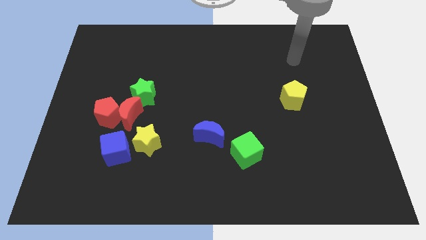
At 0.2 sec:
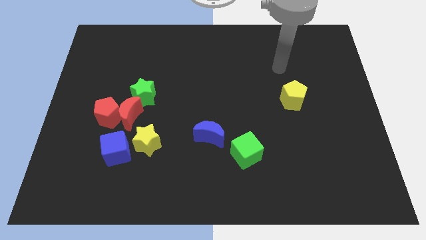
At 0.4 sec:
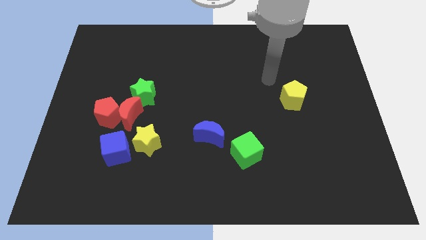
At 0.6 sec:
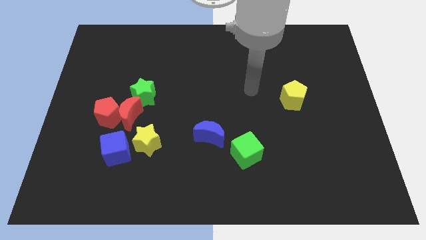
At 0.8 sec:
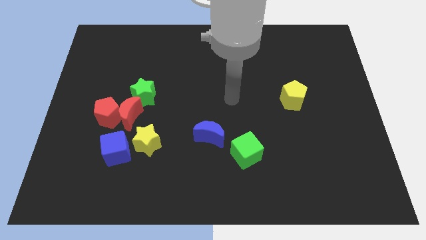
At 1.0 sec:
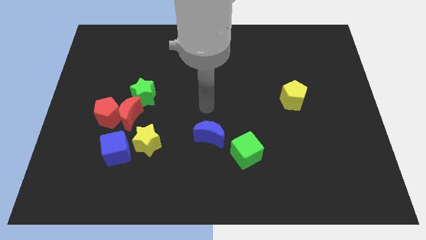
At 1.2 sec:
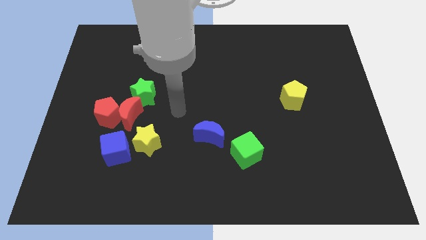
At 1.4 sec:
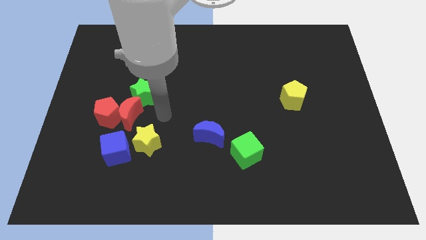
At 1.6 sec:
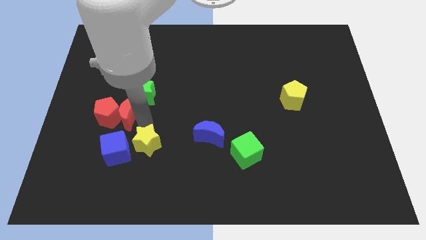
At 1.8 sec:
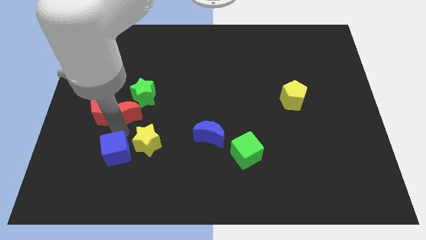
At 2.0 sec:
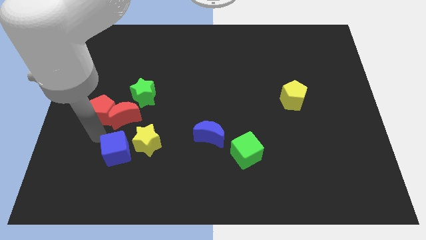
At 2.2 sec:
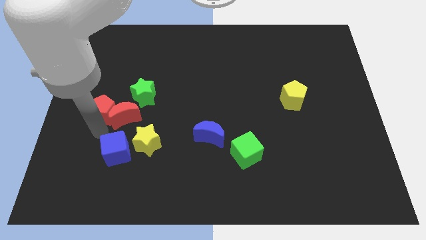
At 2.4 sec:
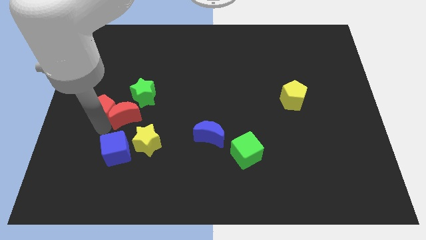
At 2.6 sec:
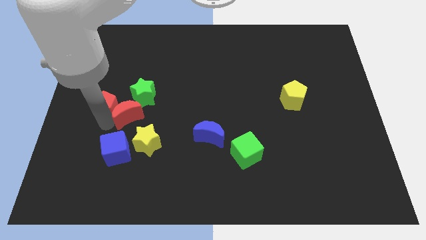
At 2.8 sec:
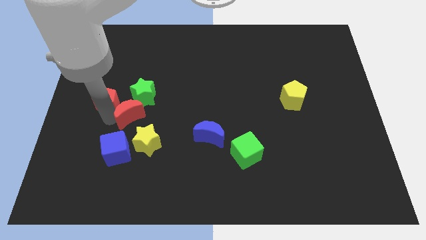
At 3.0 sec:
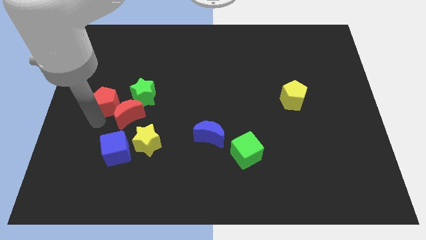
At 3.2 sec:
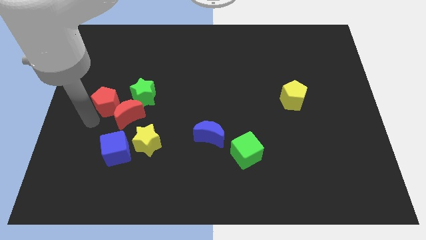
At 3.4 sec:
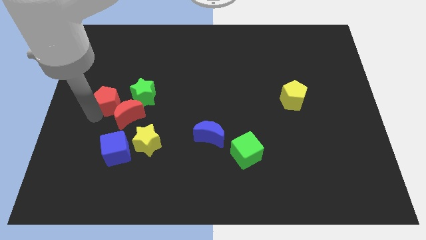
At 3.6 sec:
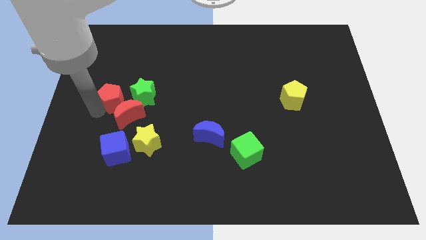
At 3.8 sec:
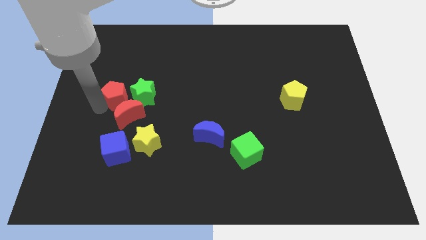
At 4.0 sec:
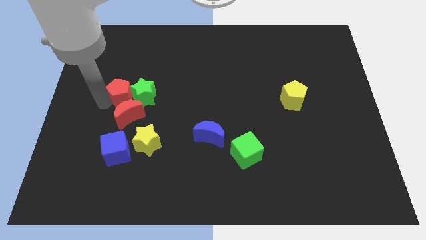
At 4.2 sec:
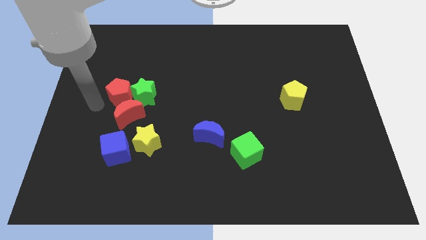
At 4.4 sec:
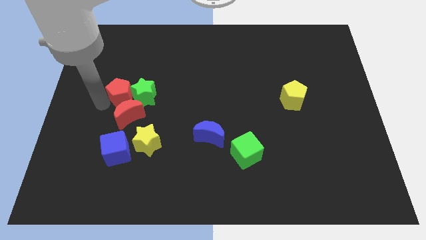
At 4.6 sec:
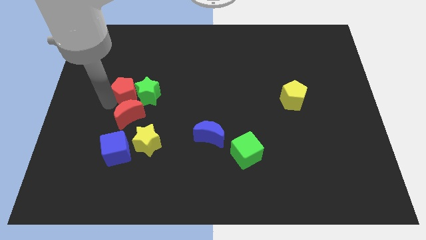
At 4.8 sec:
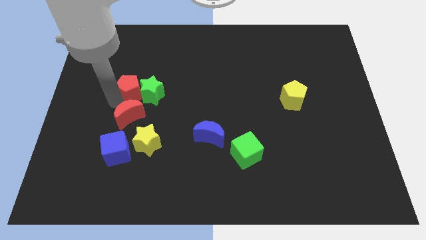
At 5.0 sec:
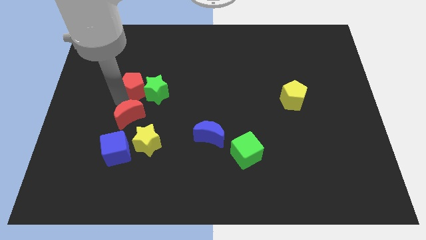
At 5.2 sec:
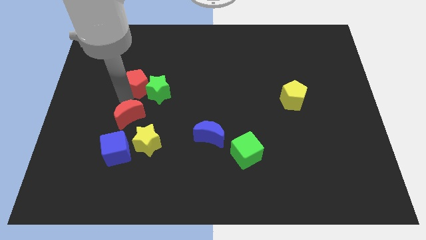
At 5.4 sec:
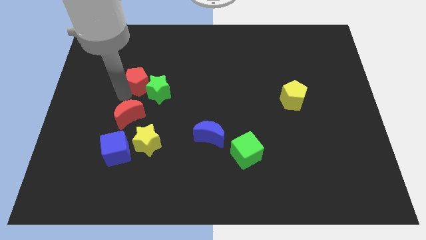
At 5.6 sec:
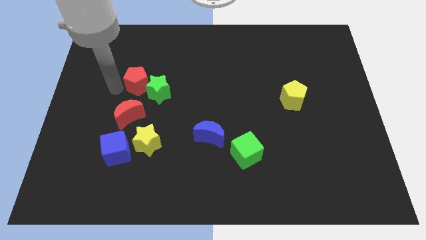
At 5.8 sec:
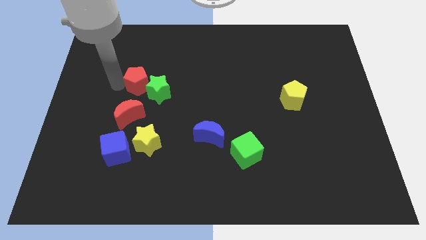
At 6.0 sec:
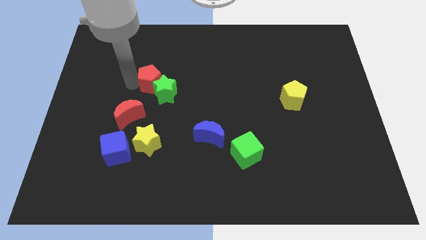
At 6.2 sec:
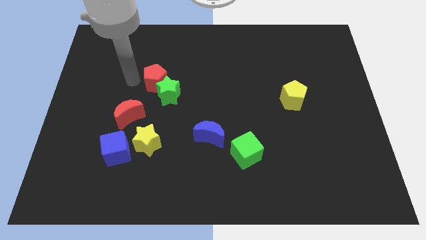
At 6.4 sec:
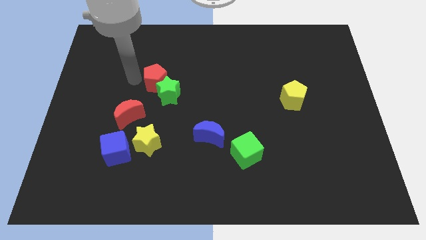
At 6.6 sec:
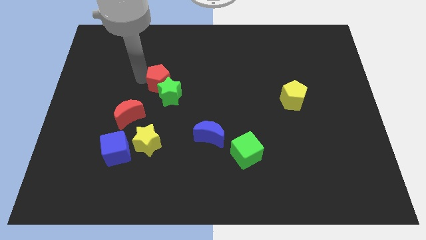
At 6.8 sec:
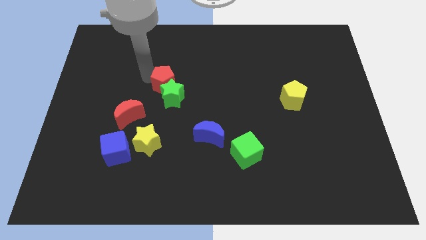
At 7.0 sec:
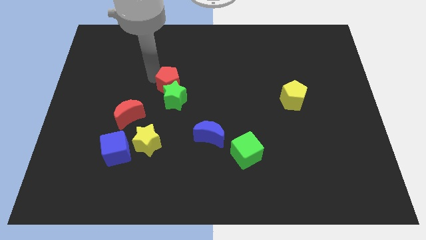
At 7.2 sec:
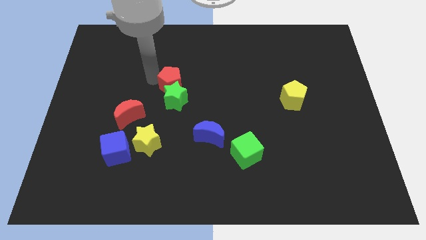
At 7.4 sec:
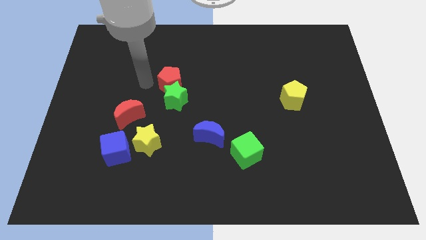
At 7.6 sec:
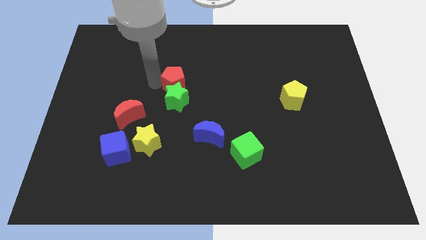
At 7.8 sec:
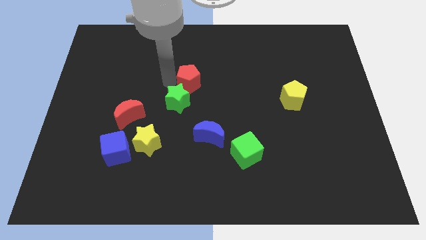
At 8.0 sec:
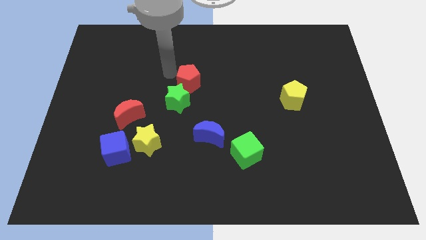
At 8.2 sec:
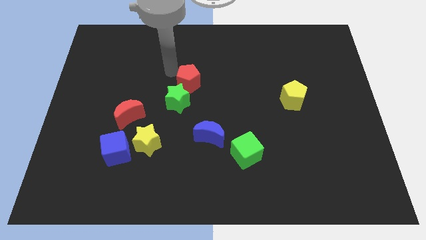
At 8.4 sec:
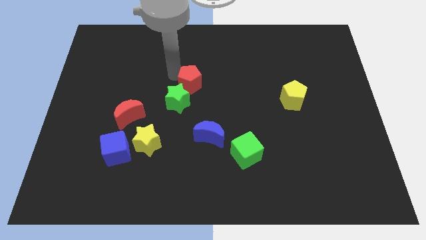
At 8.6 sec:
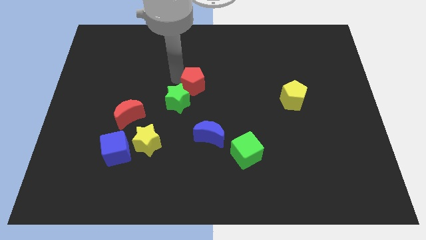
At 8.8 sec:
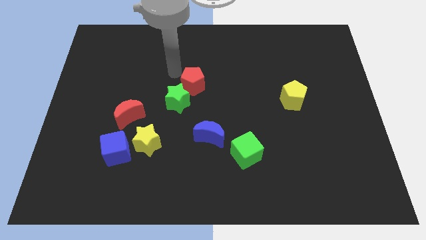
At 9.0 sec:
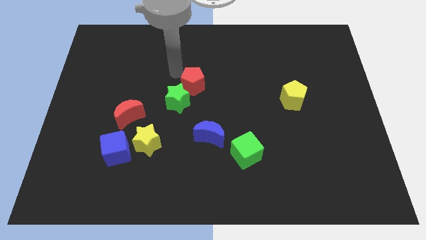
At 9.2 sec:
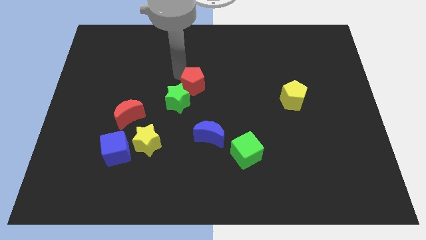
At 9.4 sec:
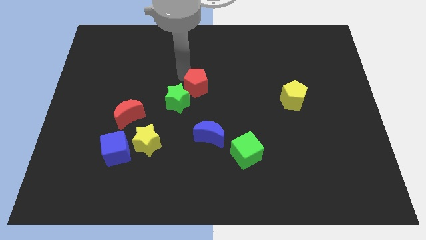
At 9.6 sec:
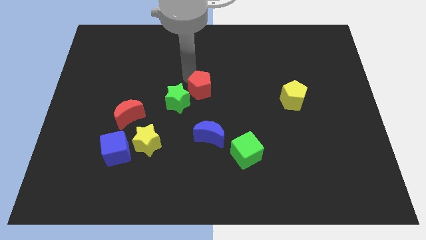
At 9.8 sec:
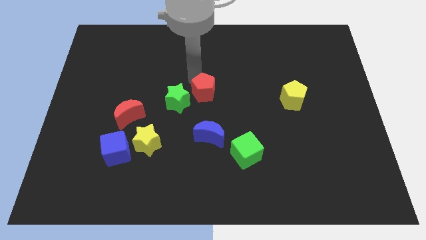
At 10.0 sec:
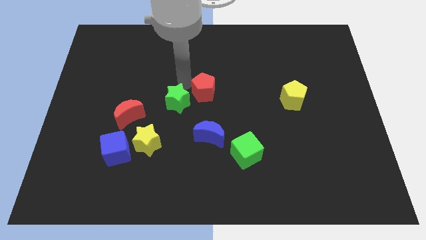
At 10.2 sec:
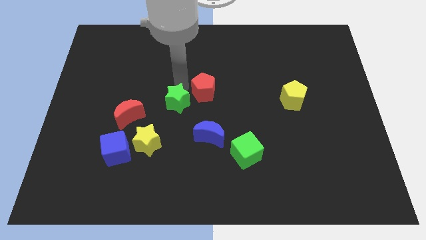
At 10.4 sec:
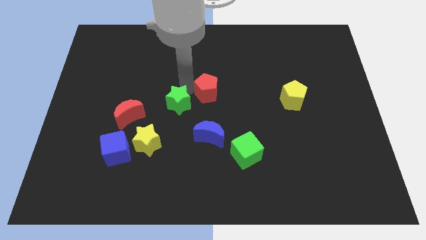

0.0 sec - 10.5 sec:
move the red pentagon right

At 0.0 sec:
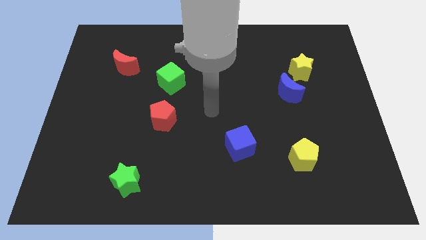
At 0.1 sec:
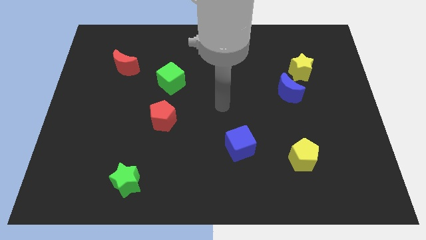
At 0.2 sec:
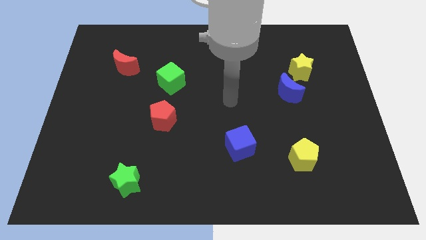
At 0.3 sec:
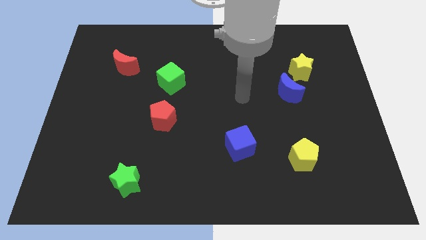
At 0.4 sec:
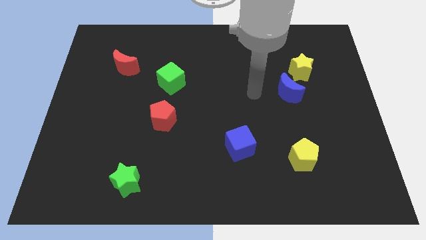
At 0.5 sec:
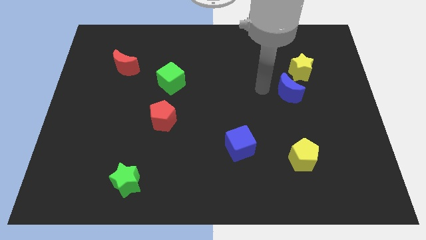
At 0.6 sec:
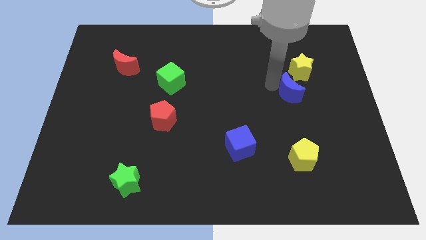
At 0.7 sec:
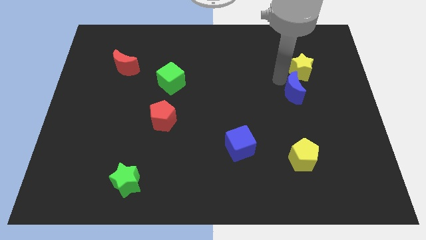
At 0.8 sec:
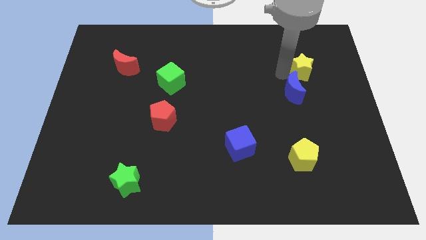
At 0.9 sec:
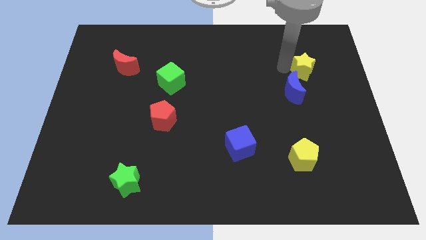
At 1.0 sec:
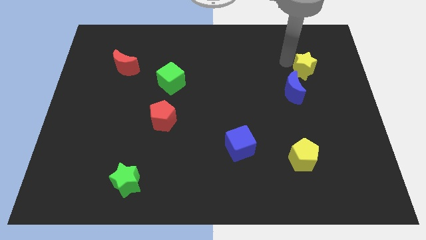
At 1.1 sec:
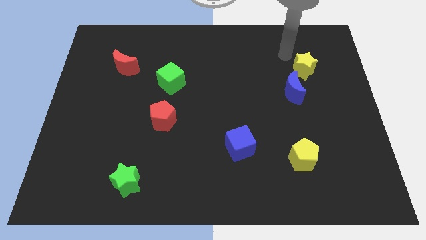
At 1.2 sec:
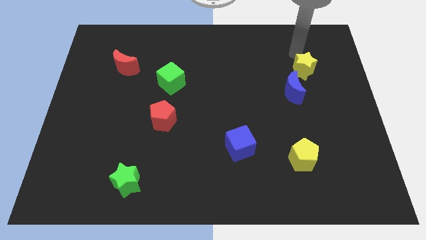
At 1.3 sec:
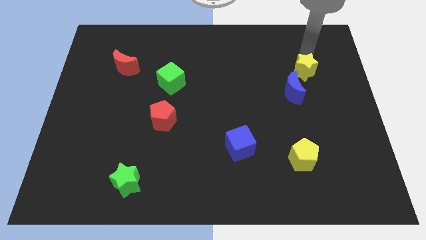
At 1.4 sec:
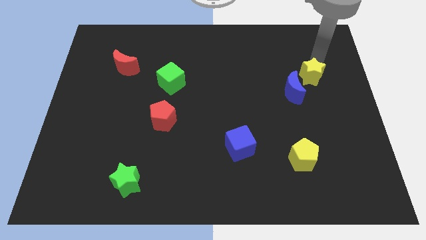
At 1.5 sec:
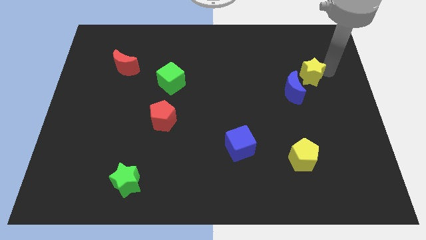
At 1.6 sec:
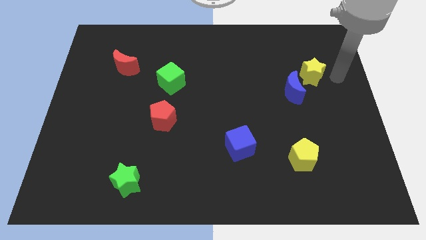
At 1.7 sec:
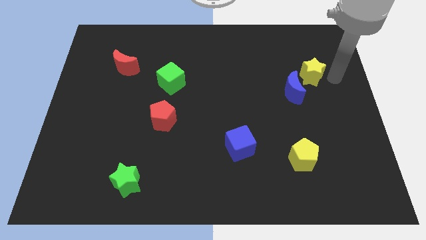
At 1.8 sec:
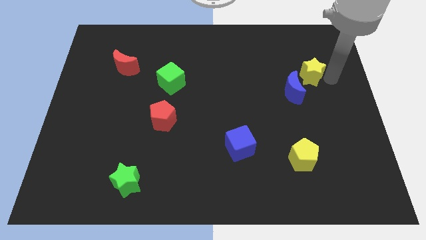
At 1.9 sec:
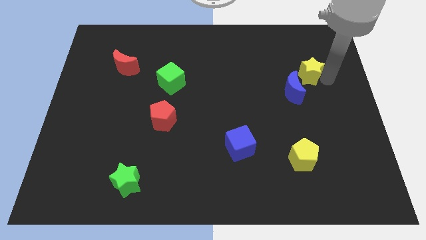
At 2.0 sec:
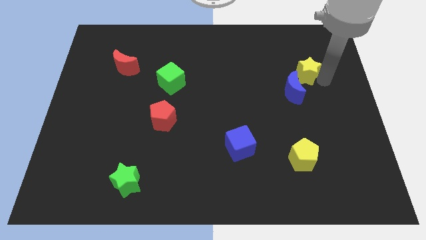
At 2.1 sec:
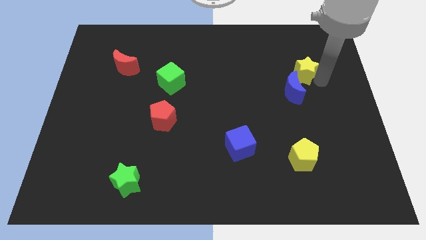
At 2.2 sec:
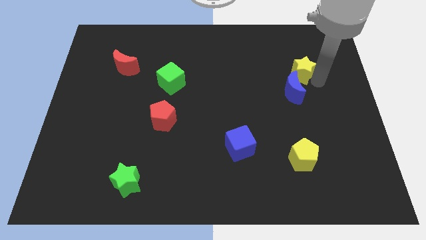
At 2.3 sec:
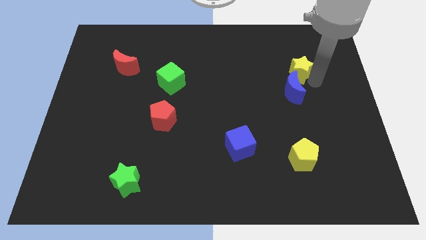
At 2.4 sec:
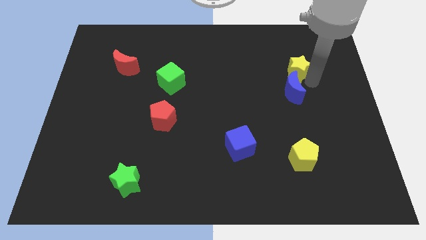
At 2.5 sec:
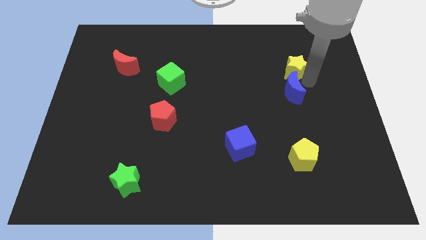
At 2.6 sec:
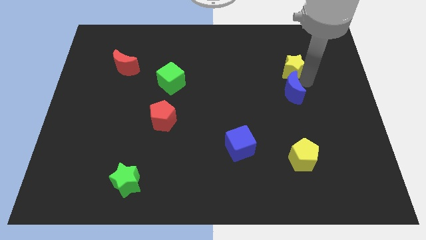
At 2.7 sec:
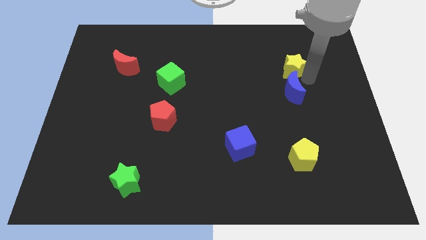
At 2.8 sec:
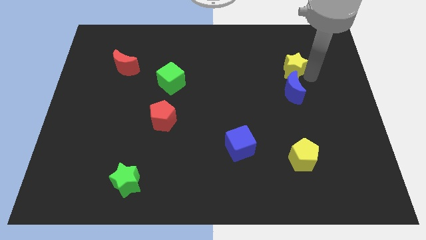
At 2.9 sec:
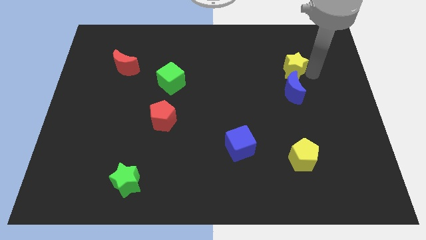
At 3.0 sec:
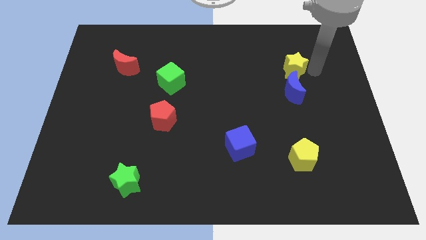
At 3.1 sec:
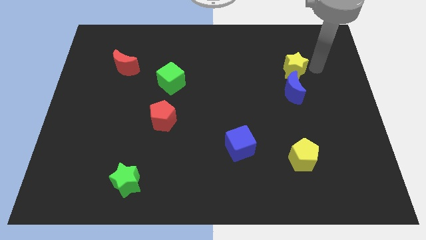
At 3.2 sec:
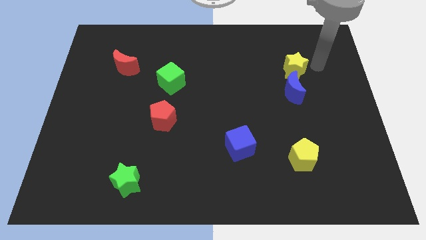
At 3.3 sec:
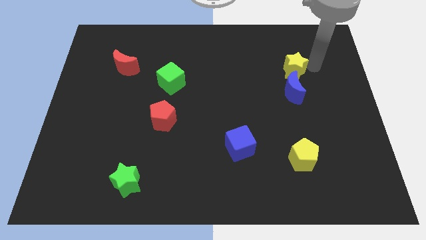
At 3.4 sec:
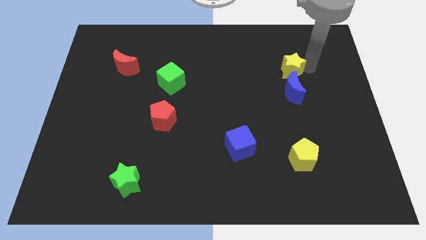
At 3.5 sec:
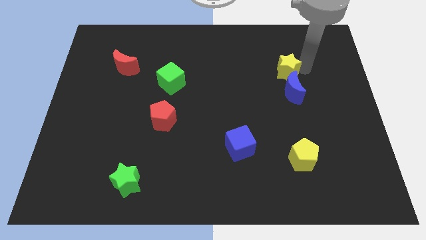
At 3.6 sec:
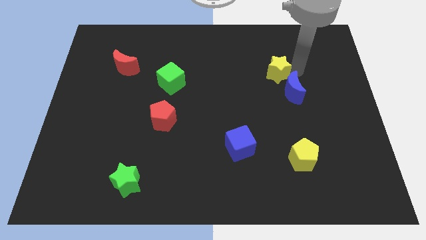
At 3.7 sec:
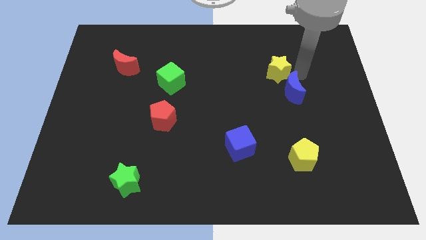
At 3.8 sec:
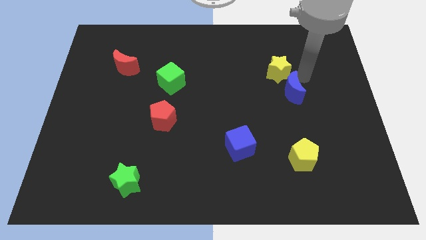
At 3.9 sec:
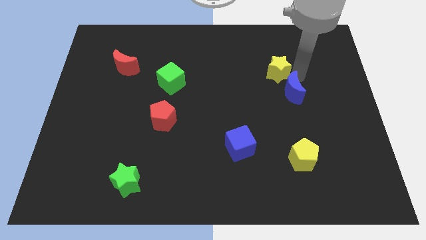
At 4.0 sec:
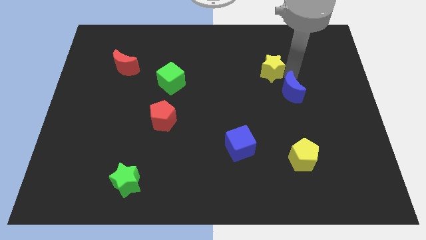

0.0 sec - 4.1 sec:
slightly push the yellow star to the left
